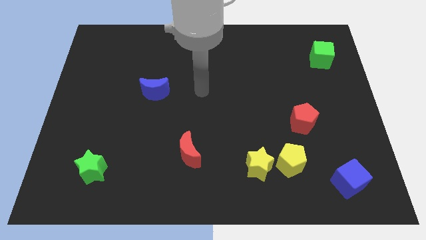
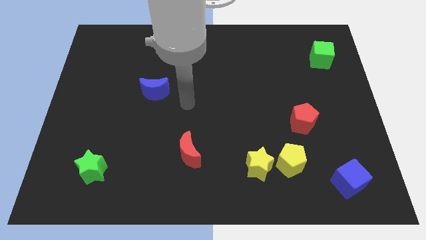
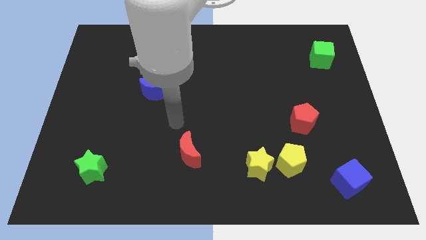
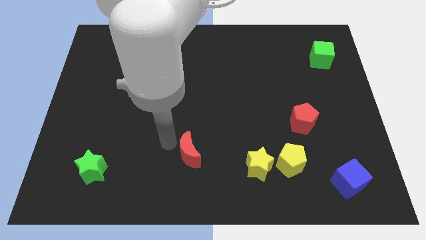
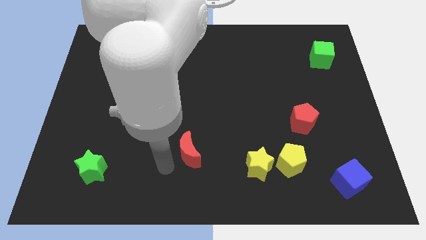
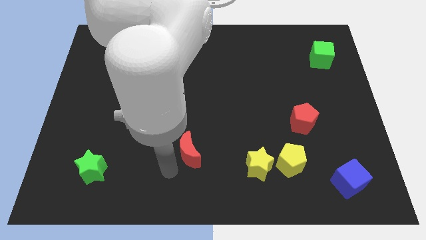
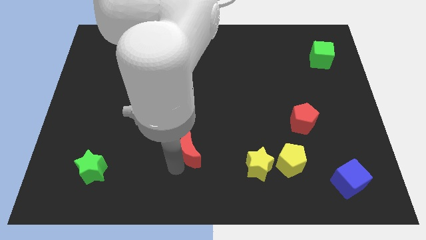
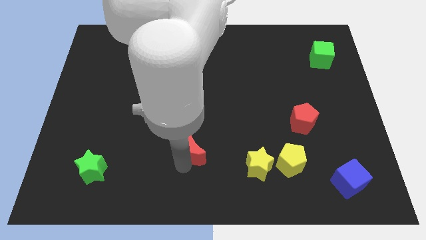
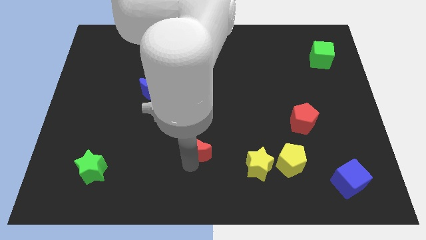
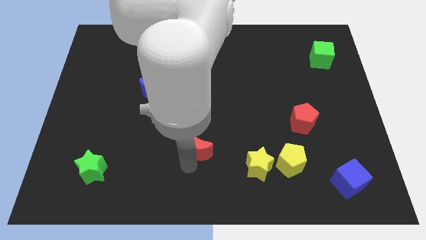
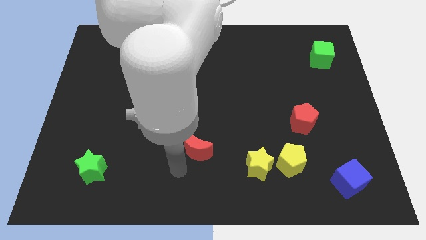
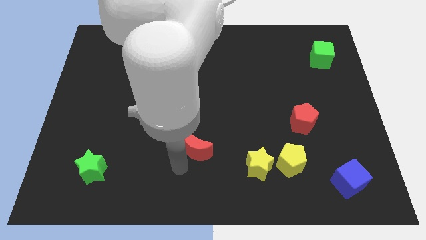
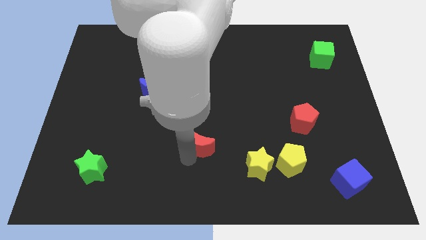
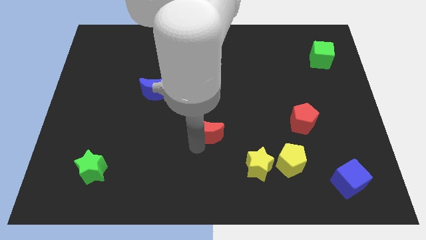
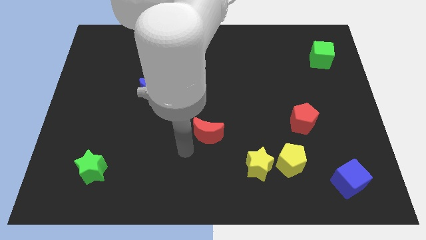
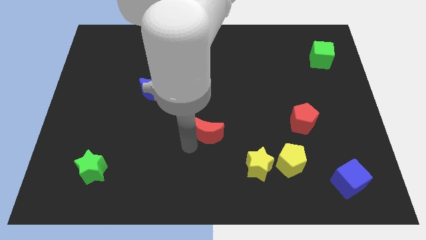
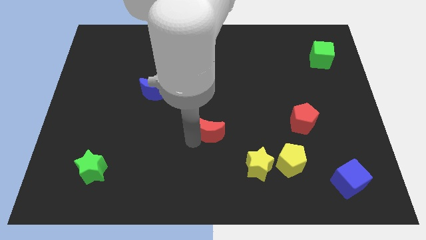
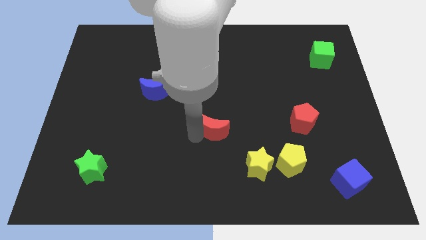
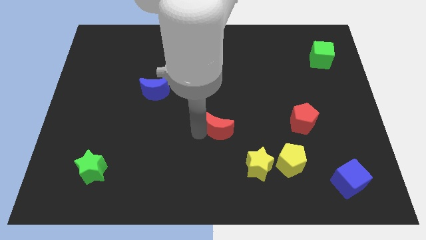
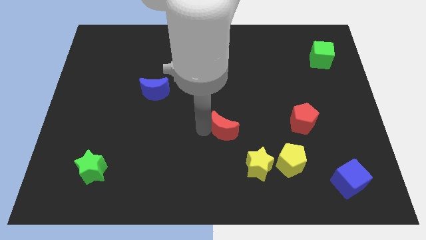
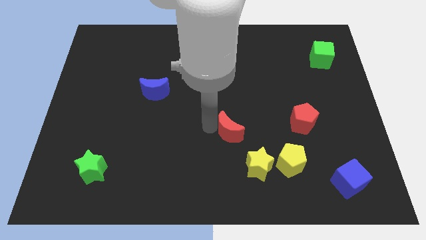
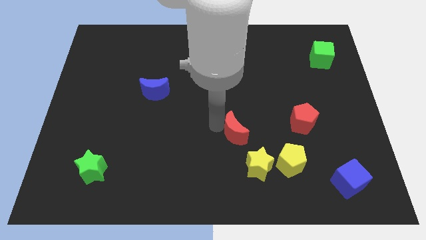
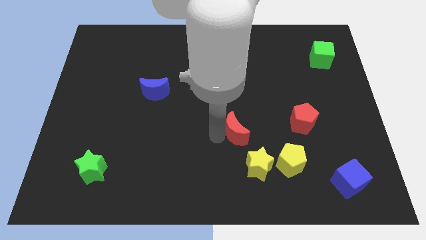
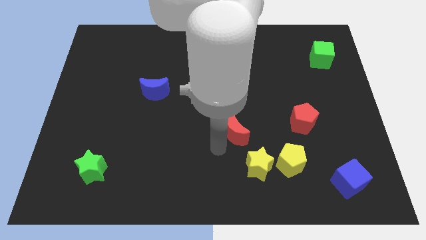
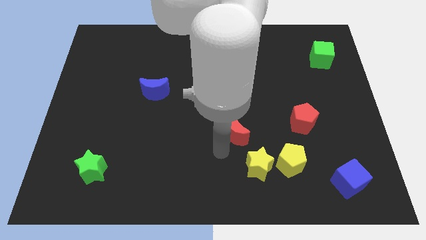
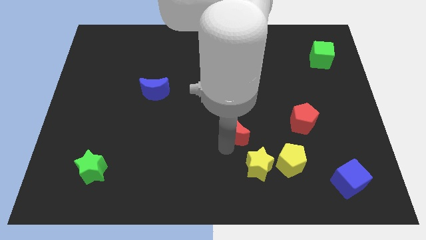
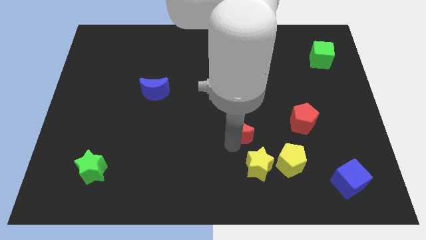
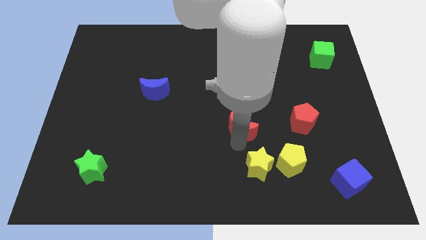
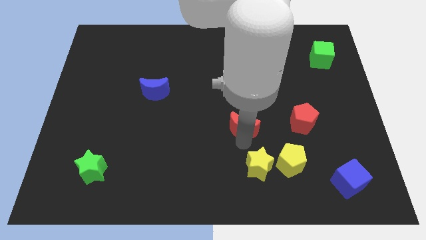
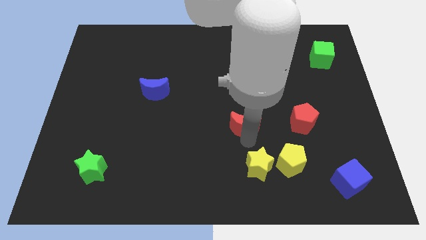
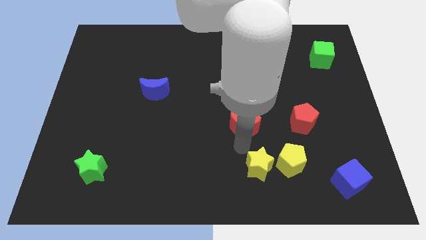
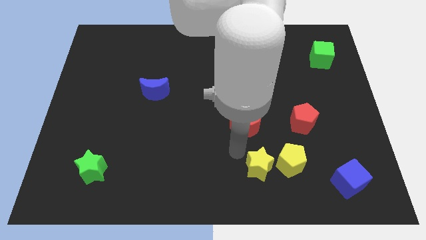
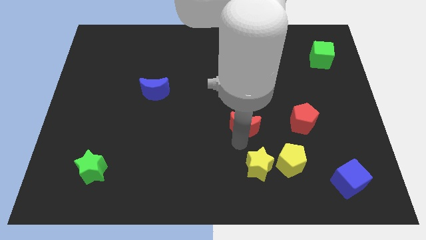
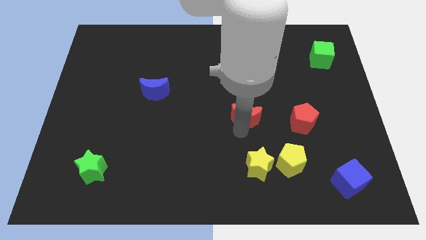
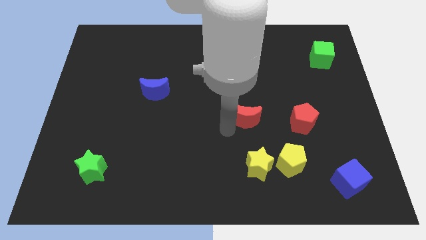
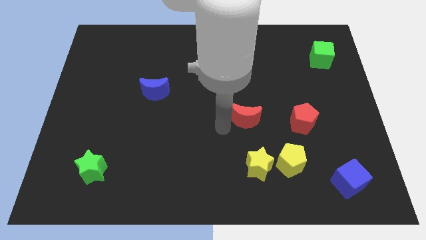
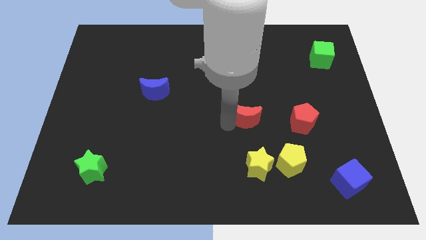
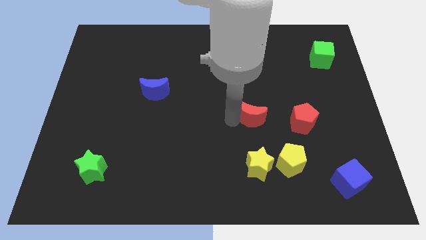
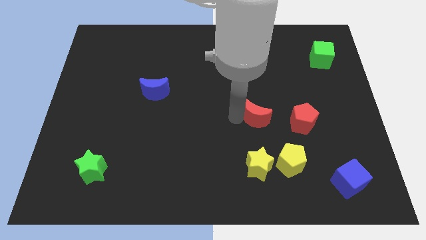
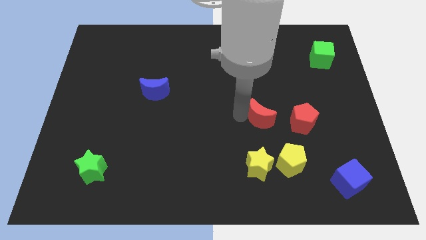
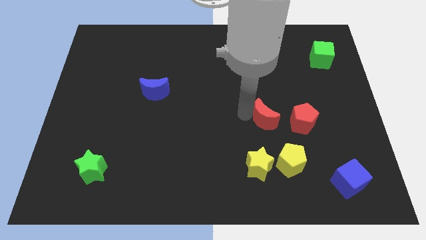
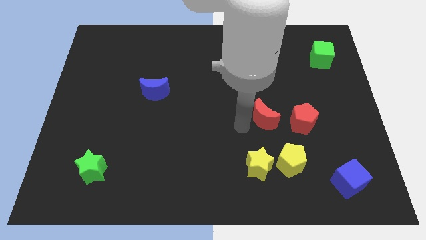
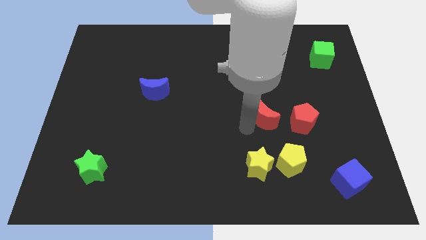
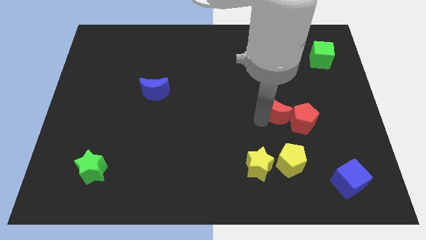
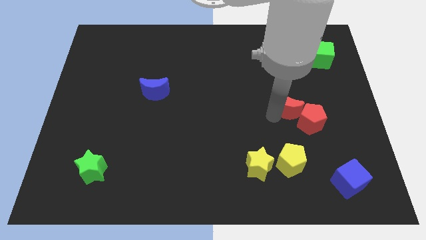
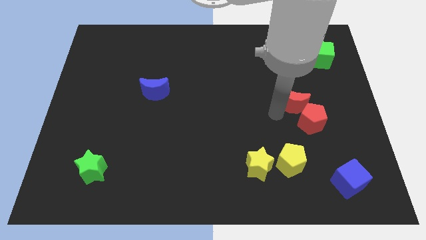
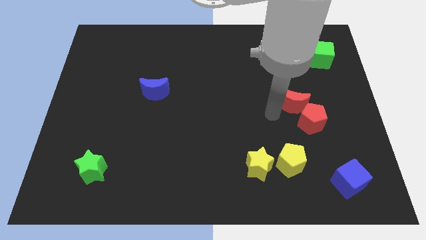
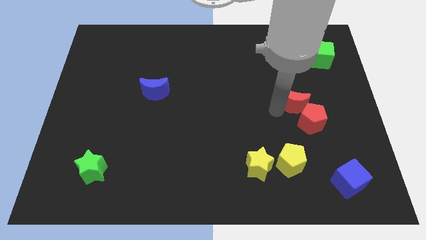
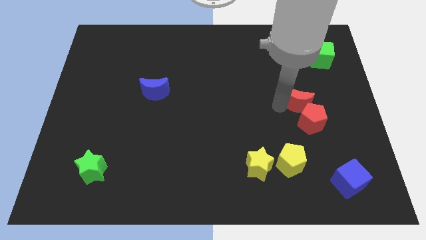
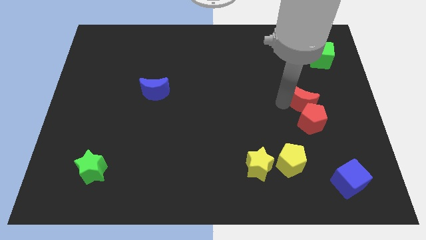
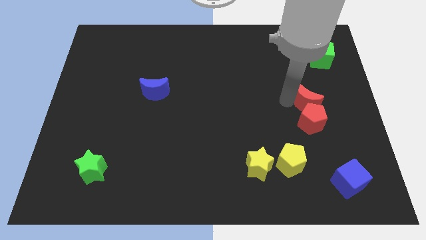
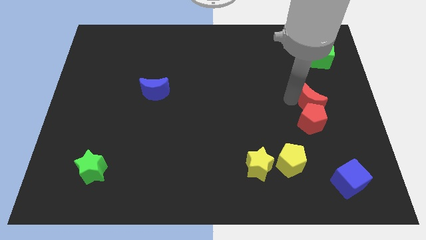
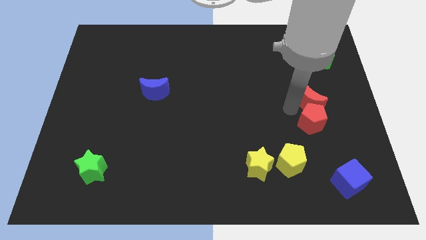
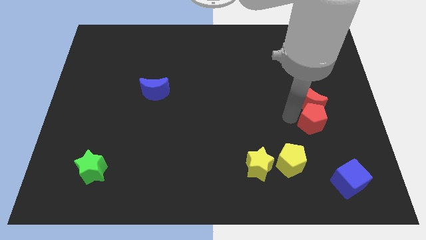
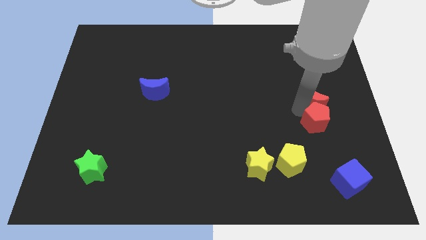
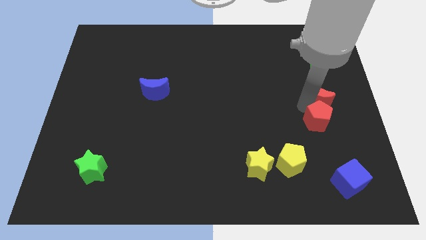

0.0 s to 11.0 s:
move the red moon below the green cube

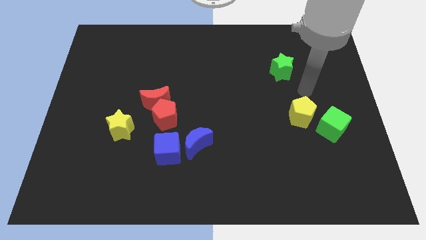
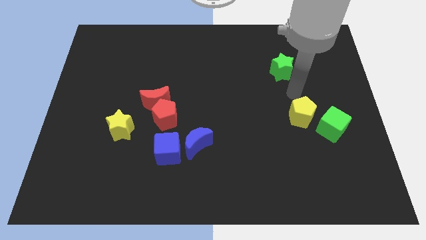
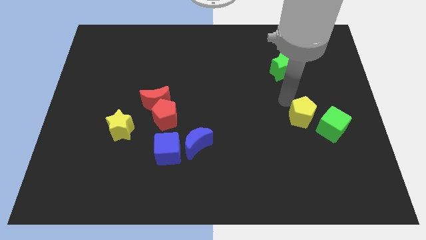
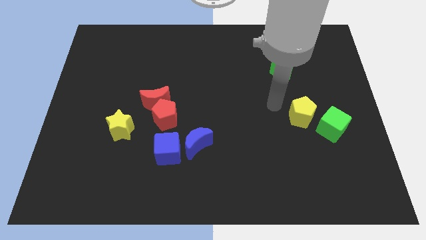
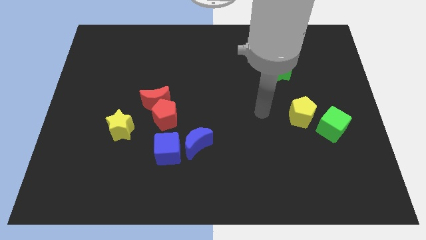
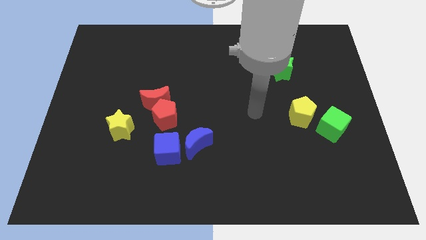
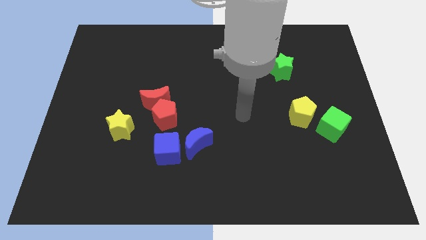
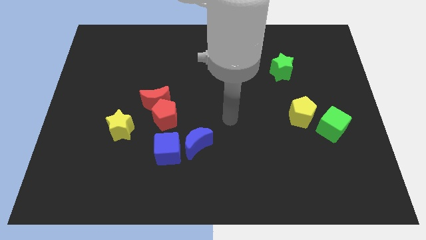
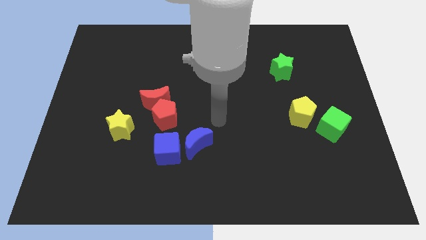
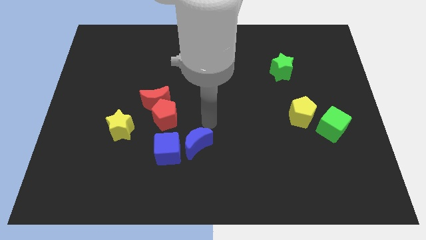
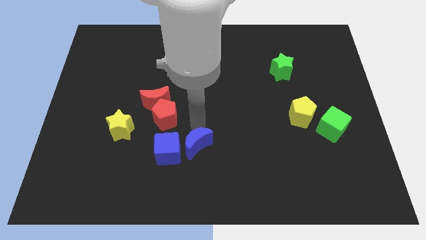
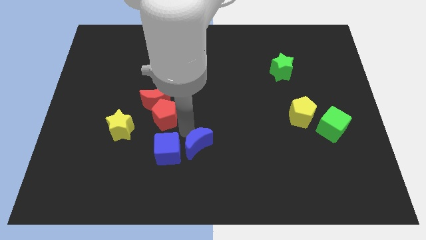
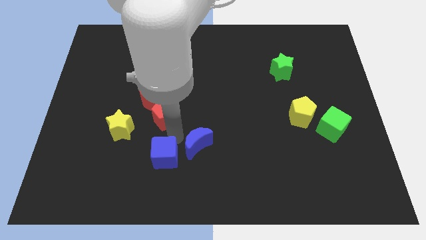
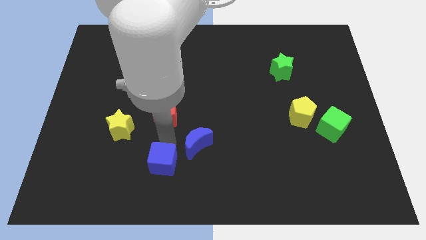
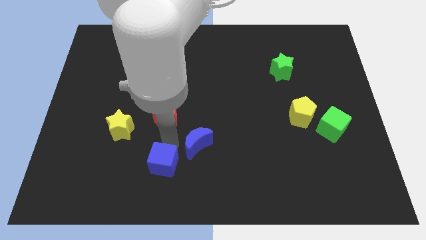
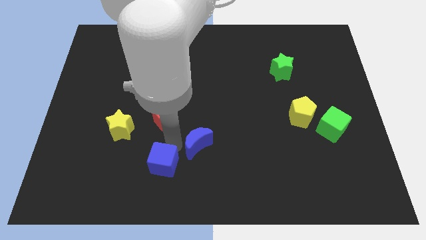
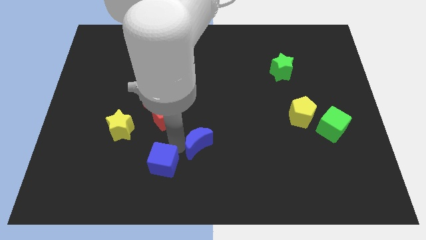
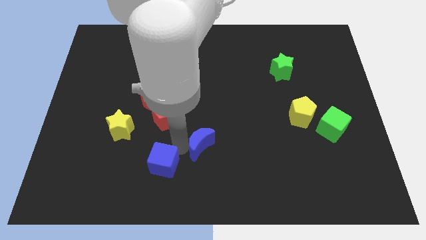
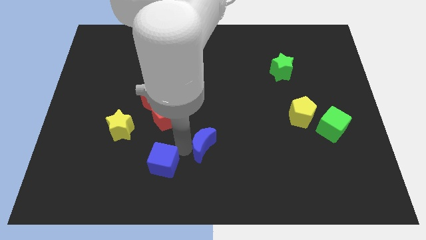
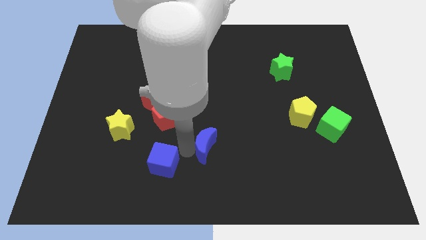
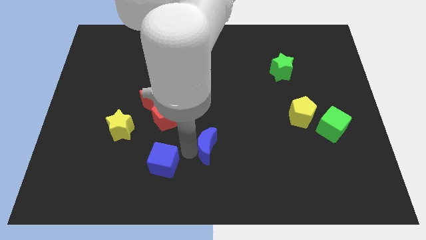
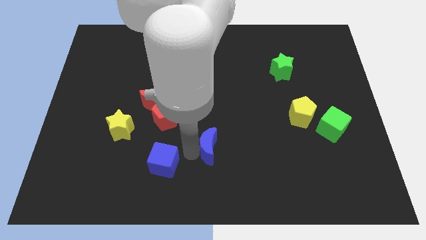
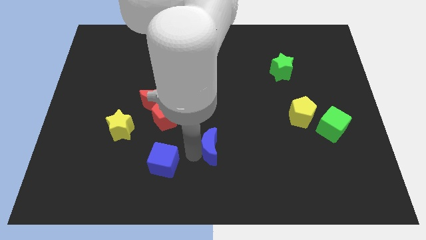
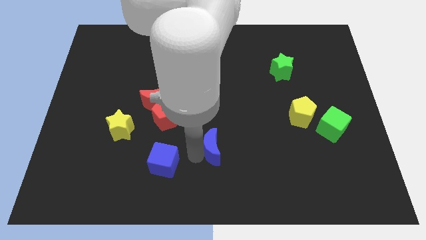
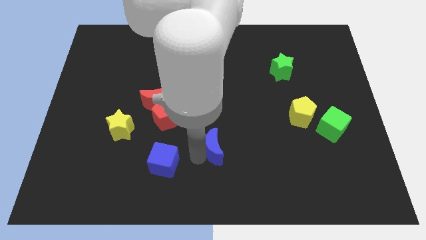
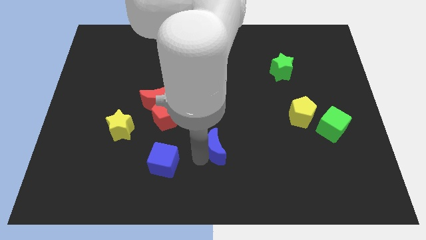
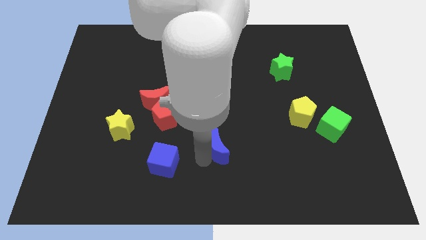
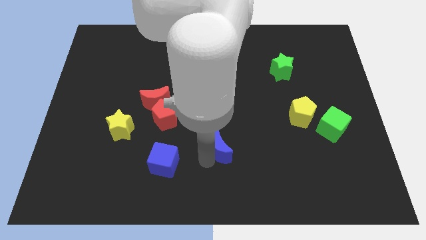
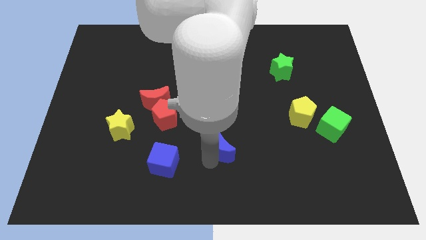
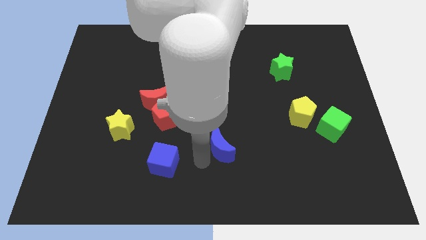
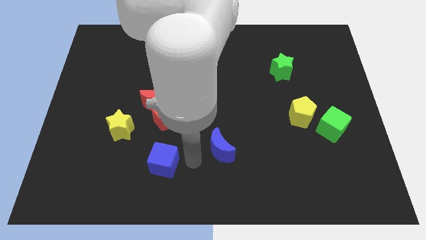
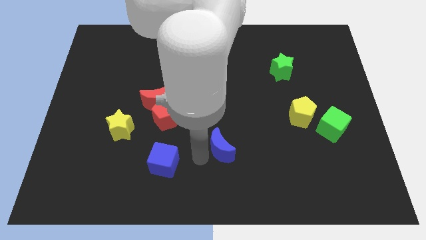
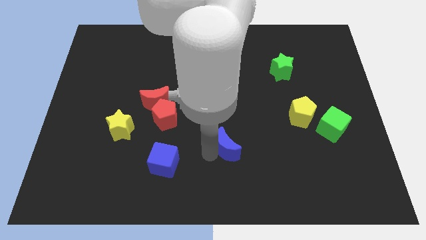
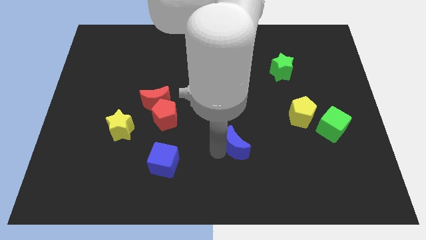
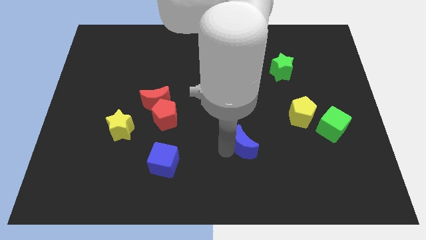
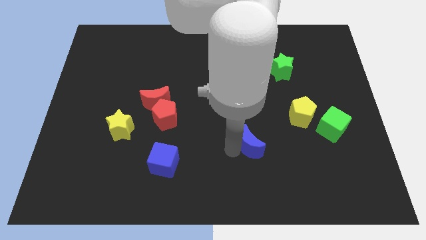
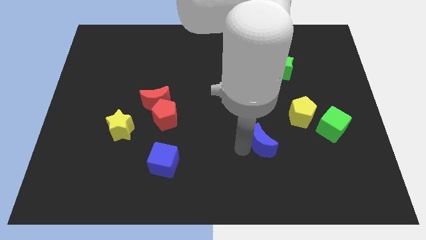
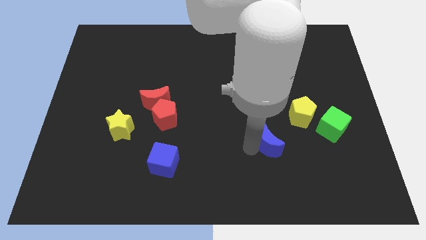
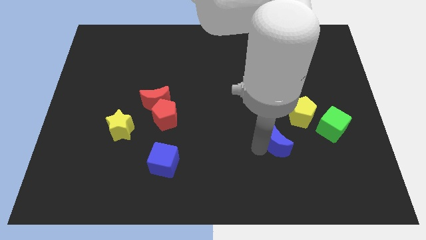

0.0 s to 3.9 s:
move the blue moon to the left of the green cube
